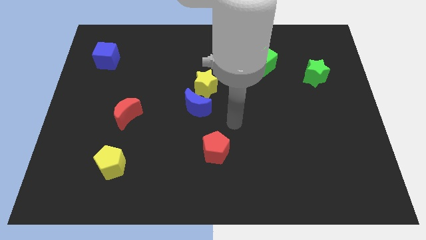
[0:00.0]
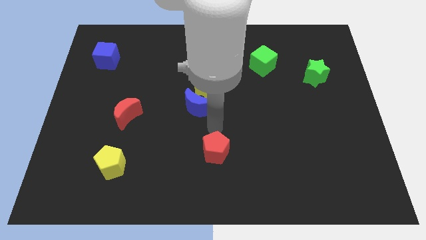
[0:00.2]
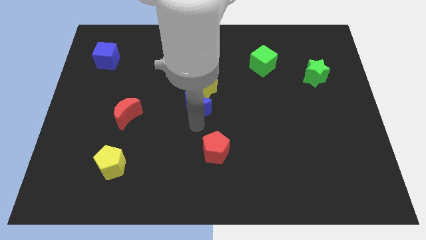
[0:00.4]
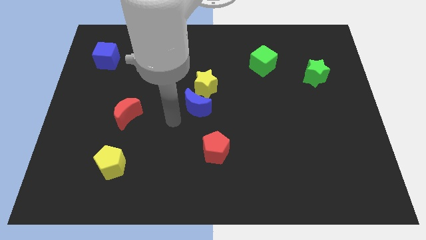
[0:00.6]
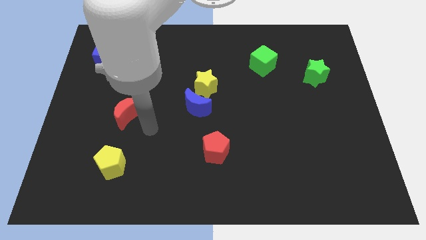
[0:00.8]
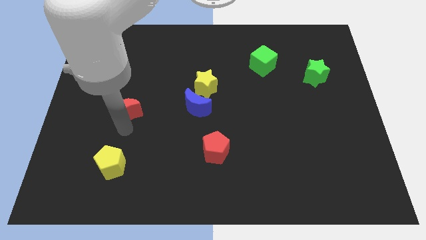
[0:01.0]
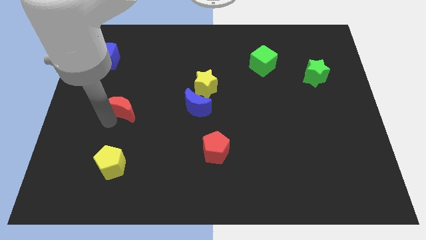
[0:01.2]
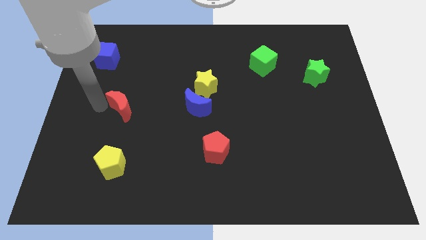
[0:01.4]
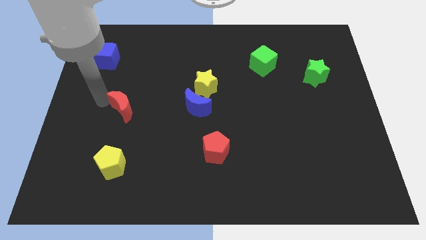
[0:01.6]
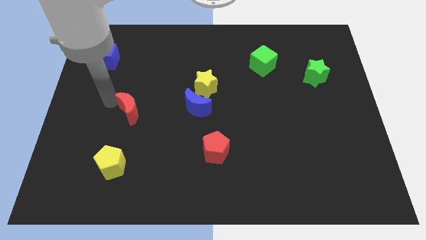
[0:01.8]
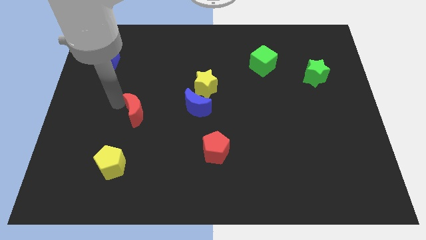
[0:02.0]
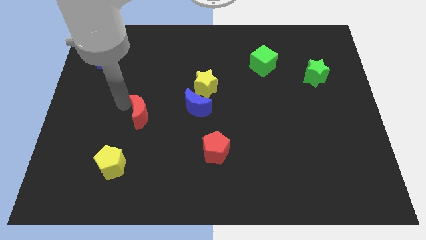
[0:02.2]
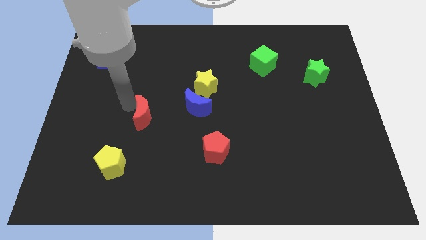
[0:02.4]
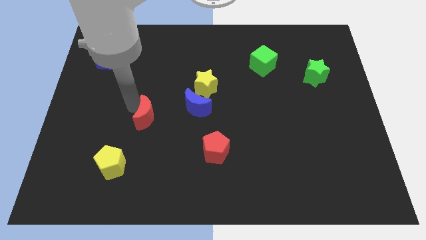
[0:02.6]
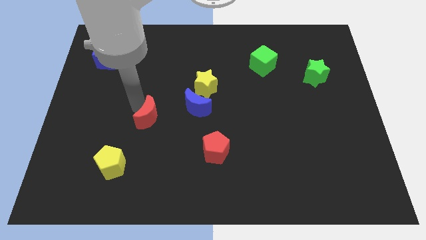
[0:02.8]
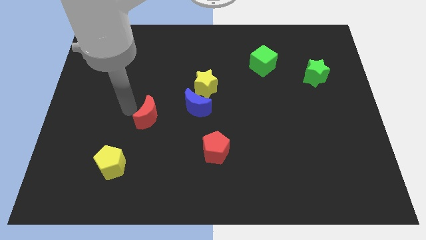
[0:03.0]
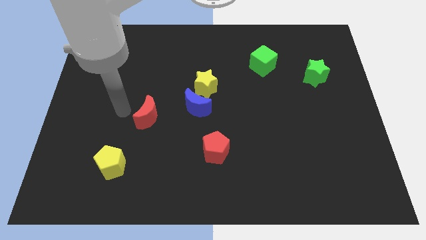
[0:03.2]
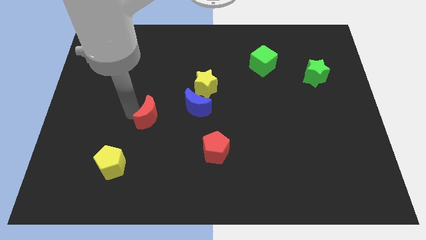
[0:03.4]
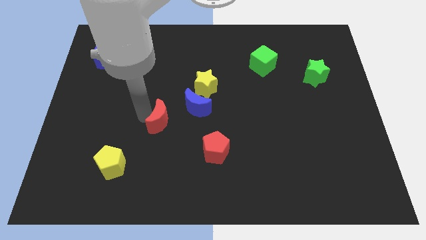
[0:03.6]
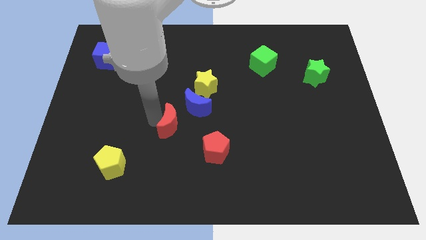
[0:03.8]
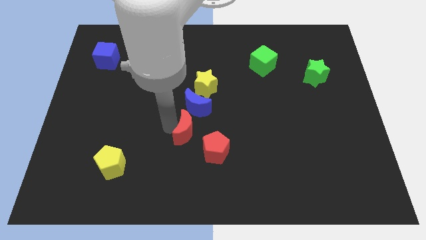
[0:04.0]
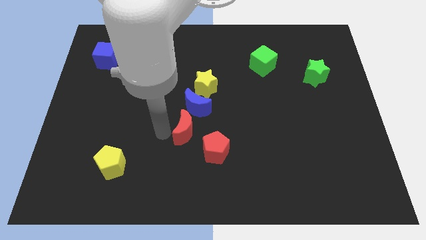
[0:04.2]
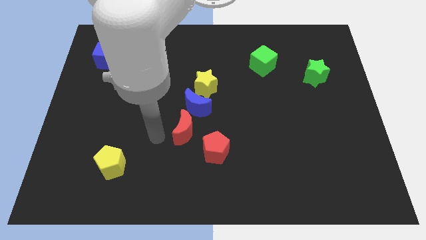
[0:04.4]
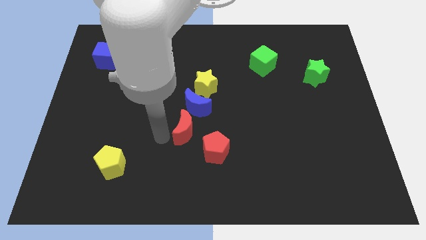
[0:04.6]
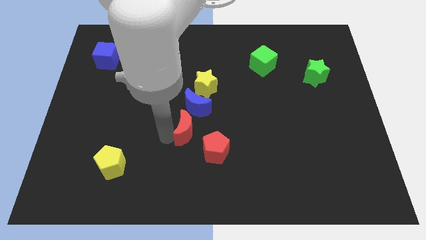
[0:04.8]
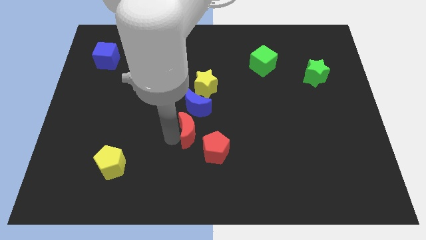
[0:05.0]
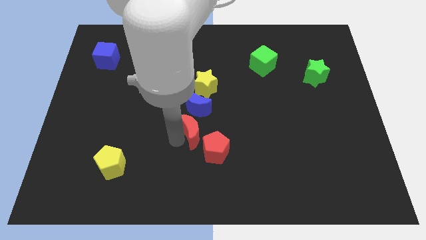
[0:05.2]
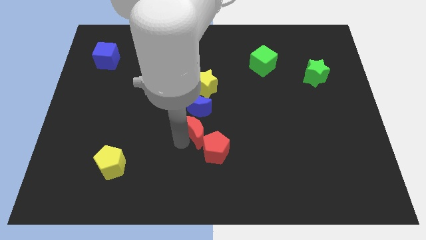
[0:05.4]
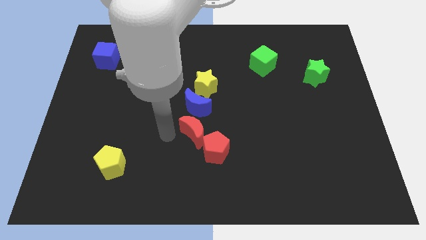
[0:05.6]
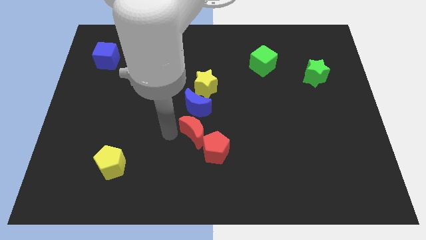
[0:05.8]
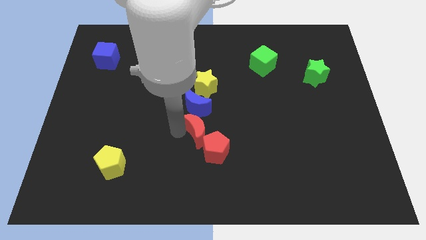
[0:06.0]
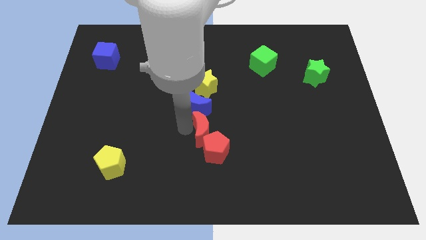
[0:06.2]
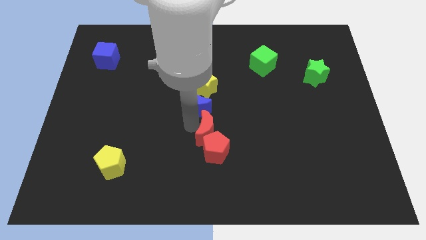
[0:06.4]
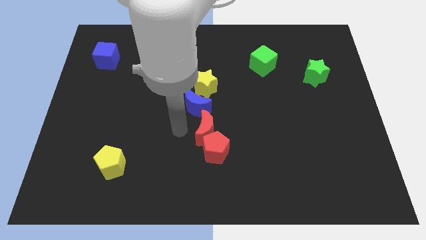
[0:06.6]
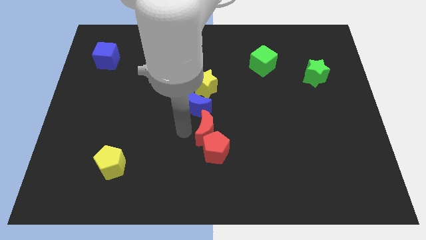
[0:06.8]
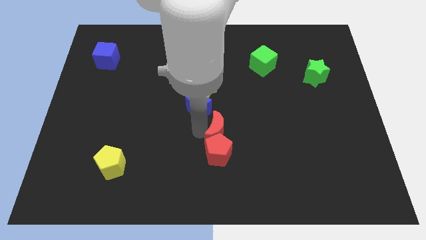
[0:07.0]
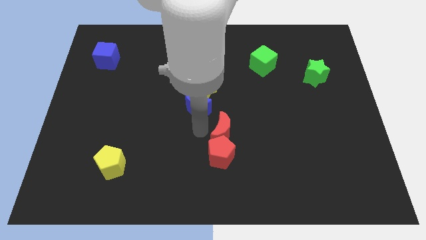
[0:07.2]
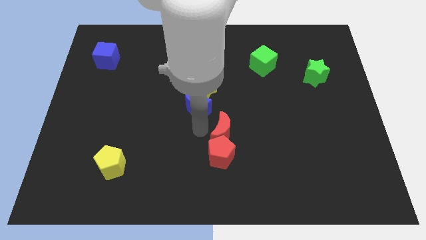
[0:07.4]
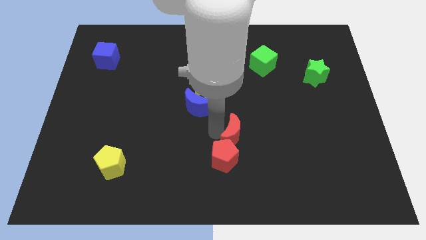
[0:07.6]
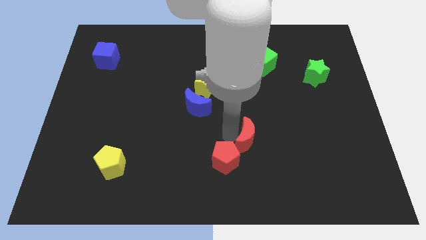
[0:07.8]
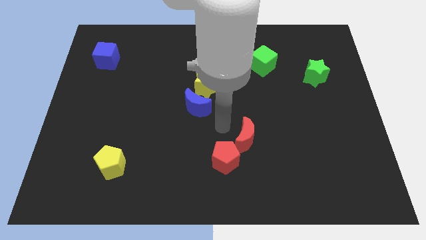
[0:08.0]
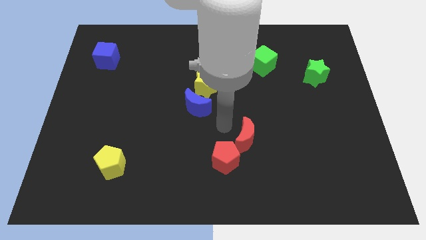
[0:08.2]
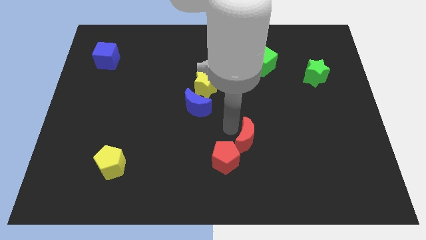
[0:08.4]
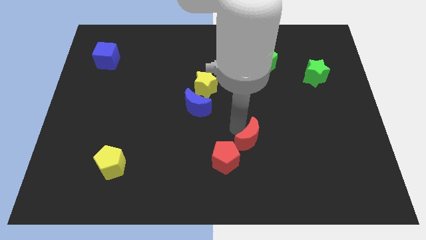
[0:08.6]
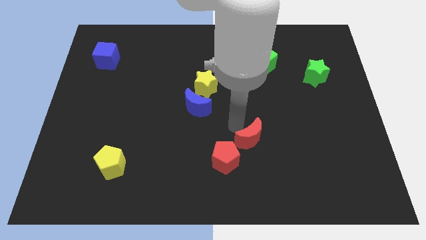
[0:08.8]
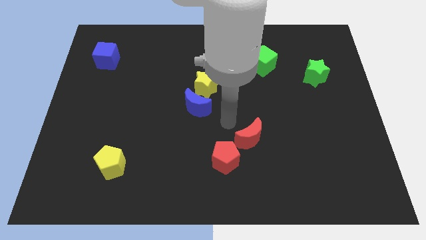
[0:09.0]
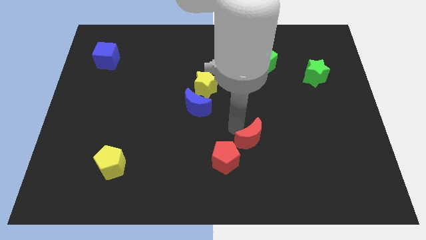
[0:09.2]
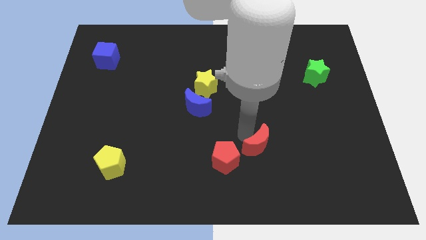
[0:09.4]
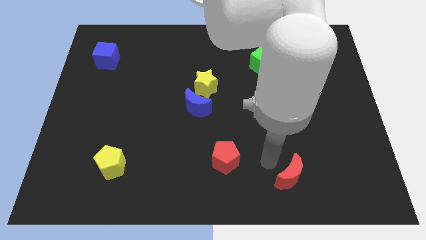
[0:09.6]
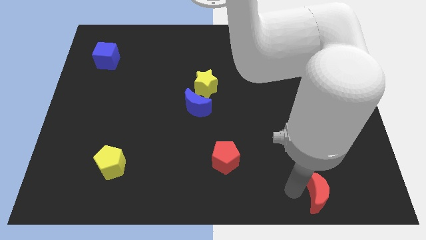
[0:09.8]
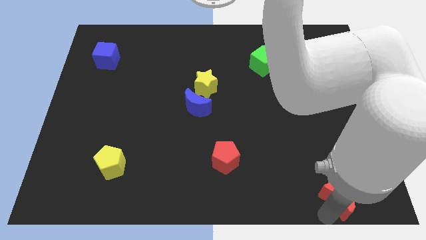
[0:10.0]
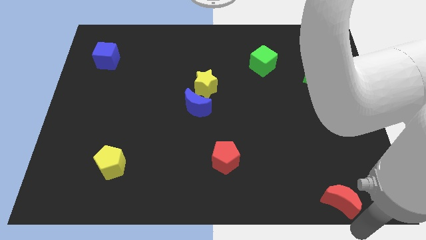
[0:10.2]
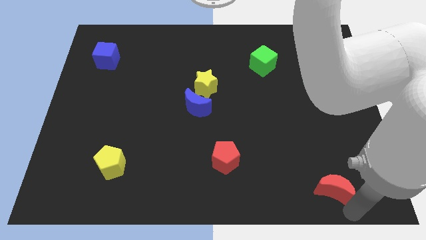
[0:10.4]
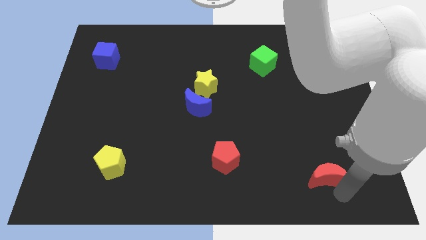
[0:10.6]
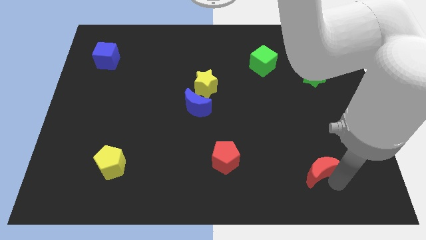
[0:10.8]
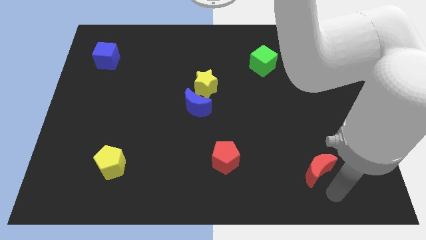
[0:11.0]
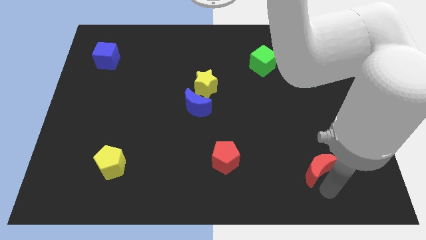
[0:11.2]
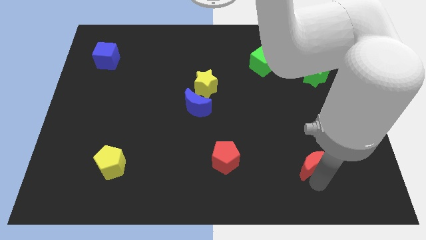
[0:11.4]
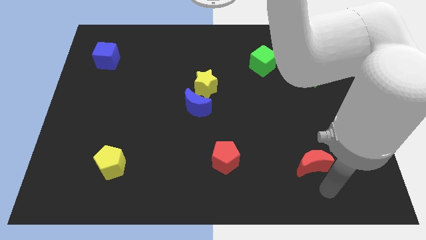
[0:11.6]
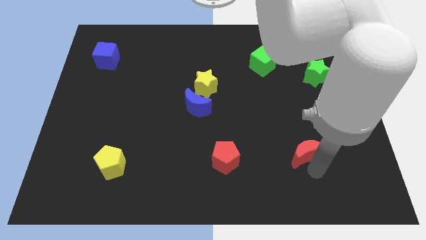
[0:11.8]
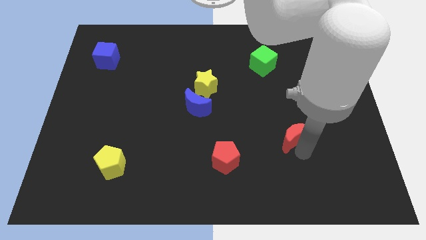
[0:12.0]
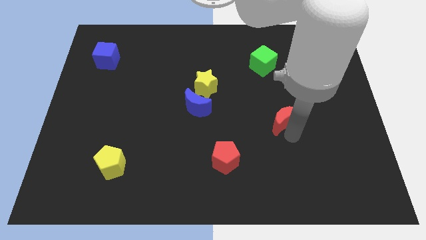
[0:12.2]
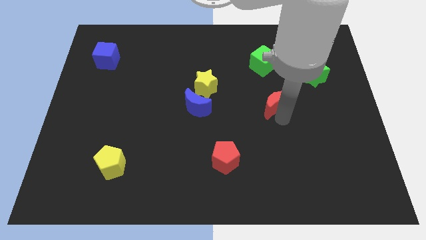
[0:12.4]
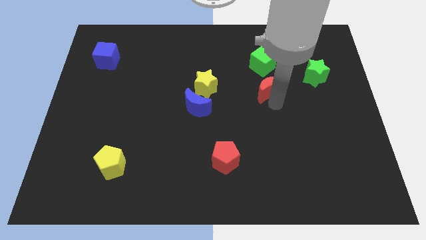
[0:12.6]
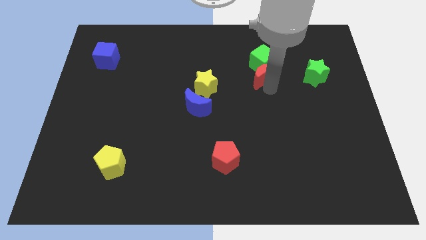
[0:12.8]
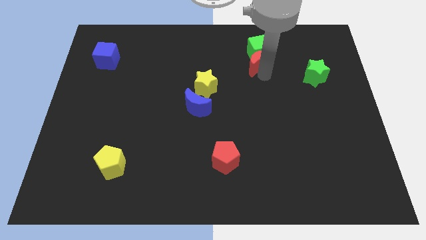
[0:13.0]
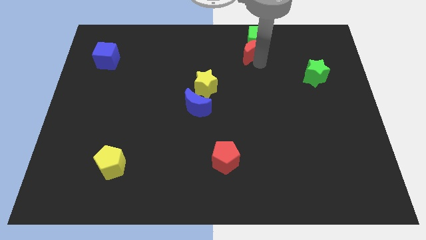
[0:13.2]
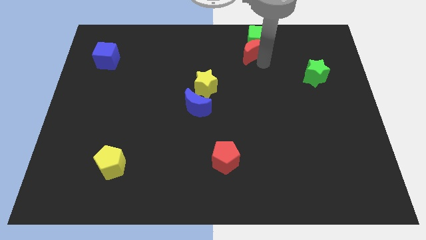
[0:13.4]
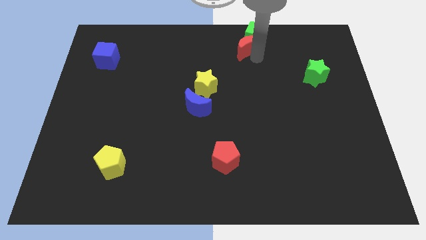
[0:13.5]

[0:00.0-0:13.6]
slide the red moon to the top side
